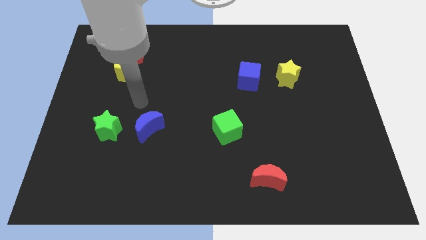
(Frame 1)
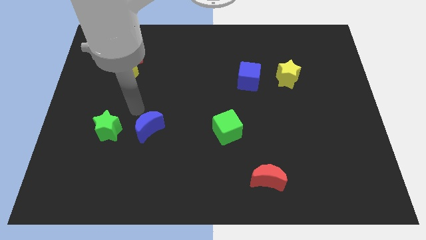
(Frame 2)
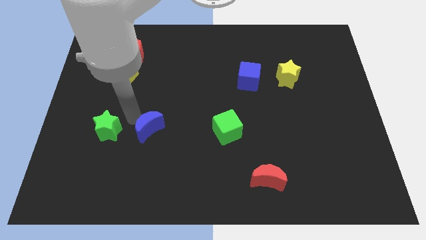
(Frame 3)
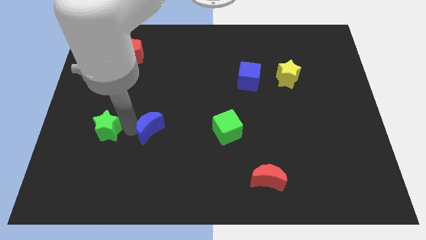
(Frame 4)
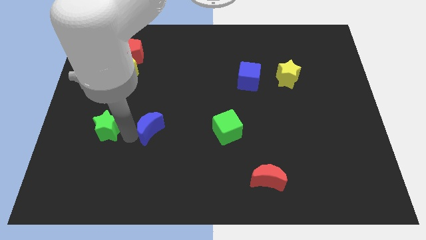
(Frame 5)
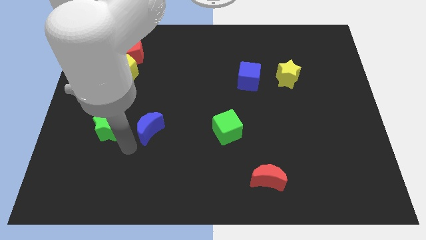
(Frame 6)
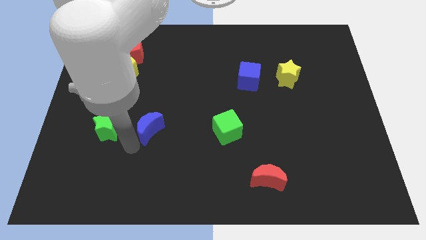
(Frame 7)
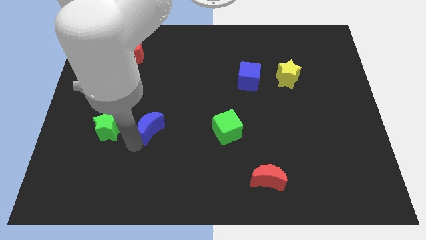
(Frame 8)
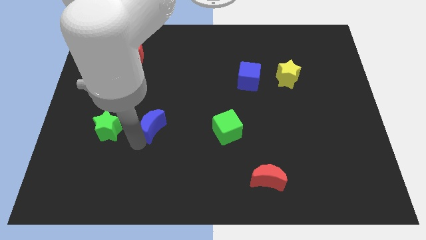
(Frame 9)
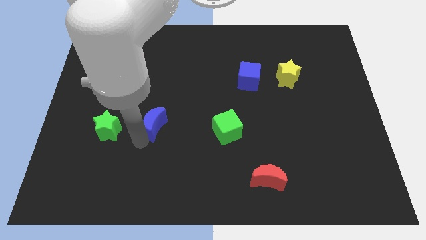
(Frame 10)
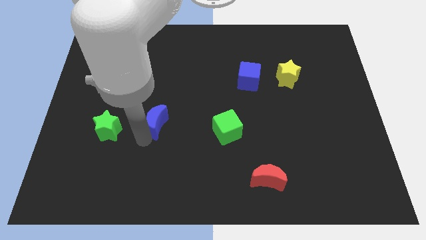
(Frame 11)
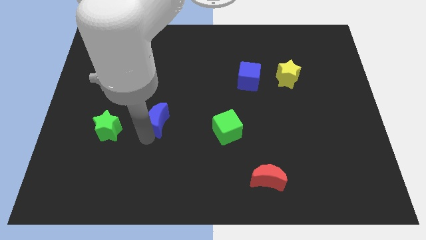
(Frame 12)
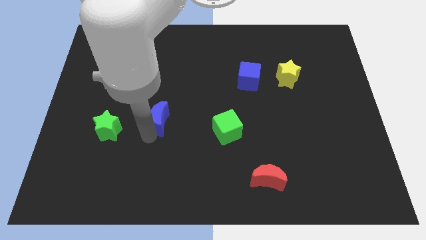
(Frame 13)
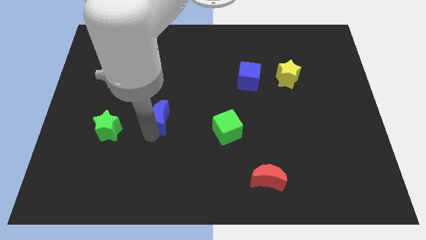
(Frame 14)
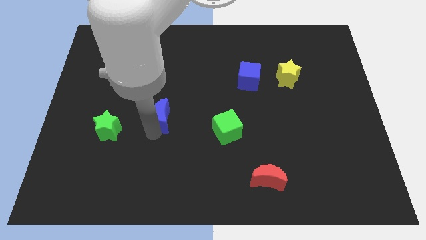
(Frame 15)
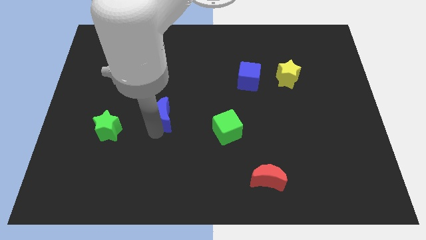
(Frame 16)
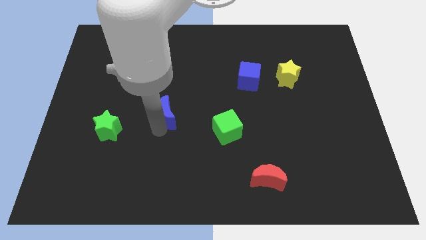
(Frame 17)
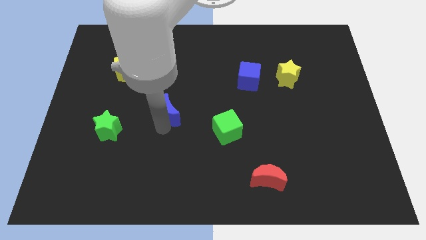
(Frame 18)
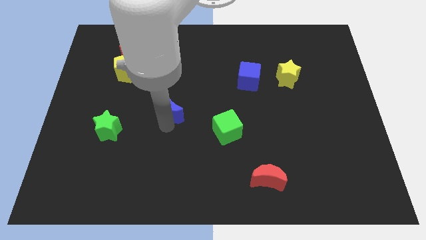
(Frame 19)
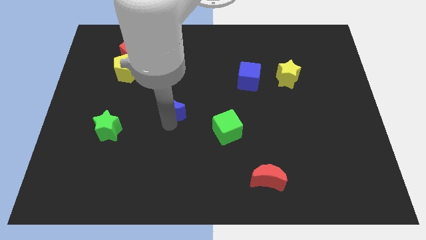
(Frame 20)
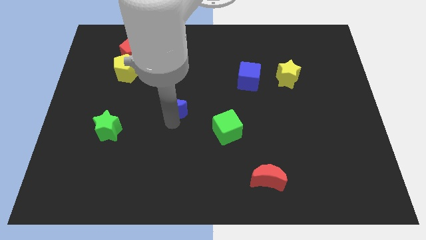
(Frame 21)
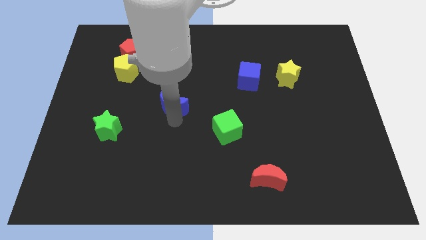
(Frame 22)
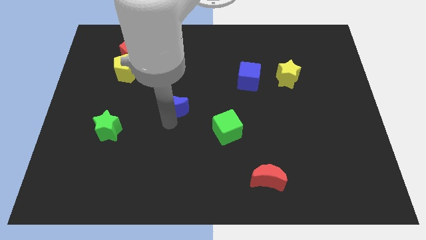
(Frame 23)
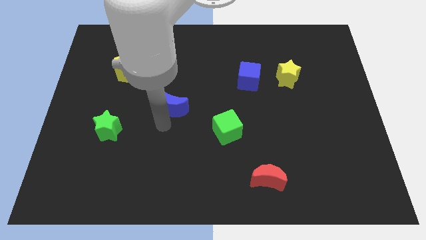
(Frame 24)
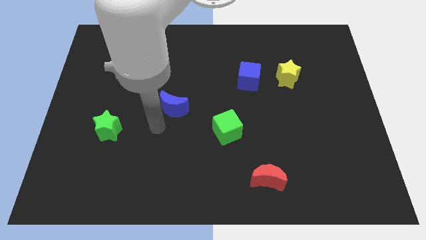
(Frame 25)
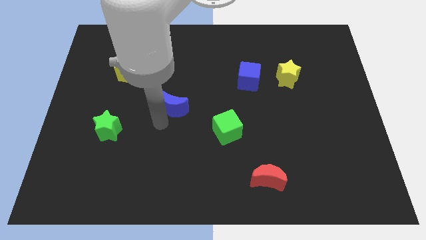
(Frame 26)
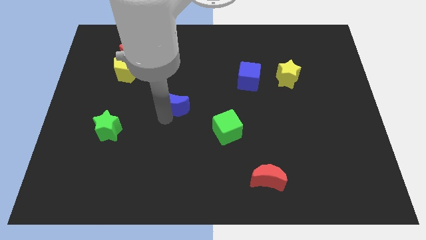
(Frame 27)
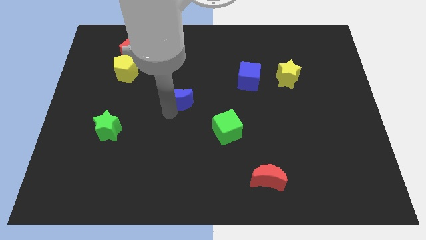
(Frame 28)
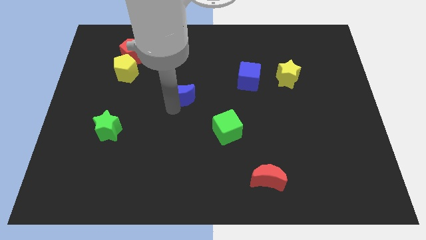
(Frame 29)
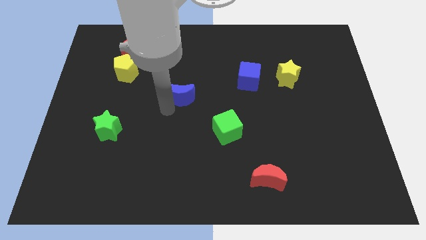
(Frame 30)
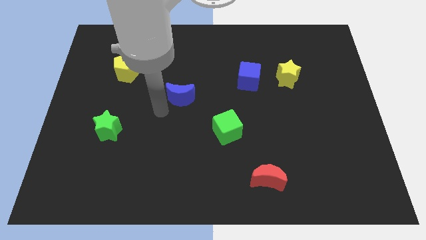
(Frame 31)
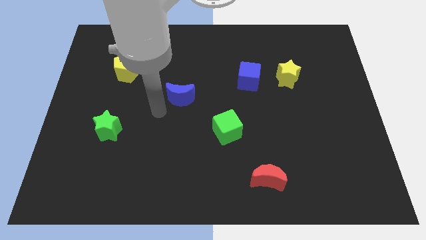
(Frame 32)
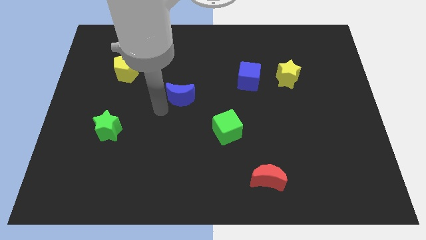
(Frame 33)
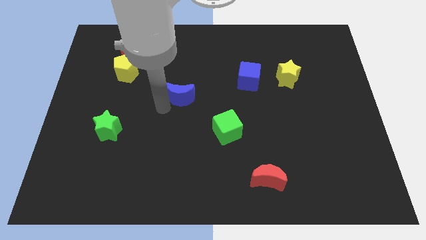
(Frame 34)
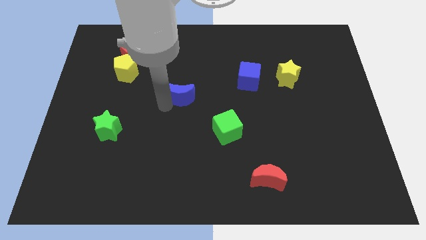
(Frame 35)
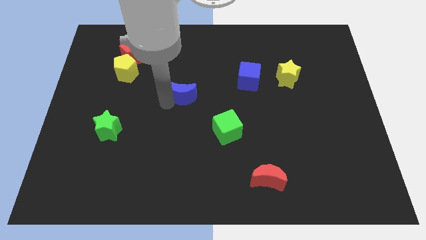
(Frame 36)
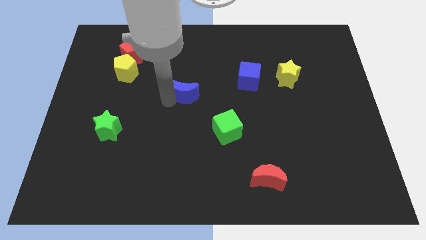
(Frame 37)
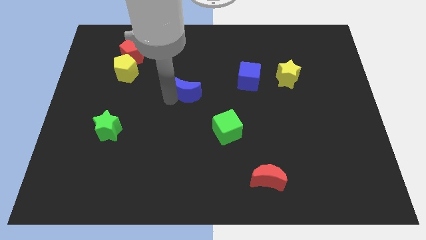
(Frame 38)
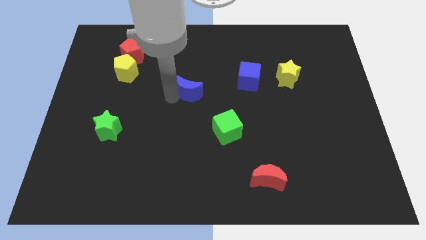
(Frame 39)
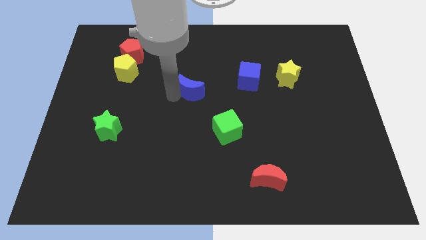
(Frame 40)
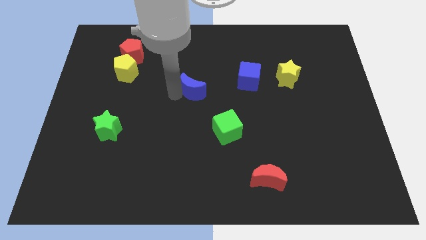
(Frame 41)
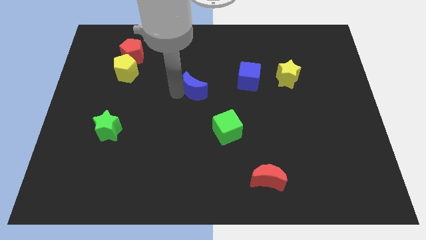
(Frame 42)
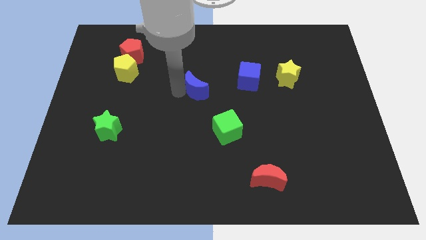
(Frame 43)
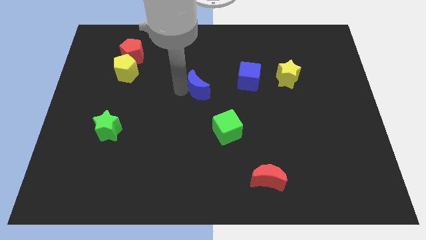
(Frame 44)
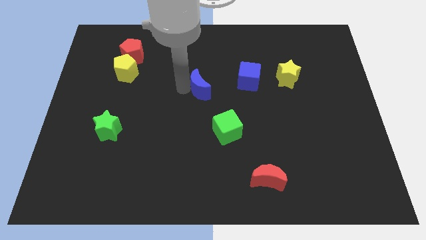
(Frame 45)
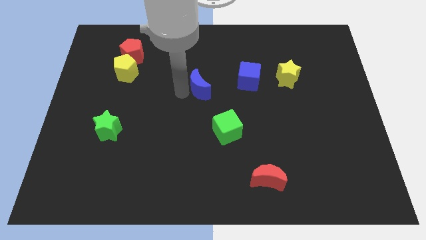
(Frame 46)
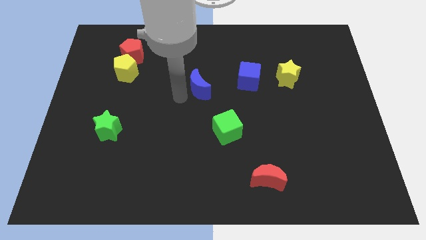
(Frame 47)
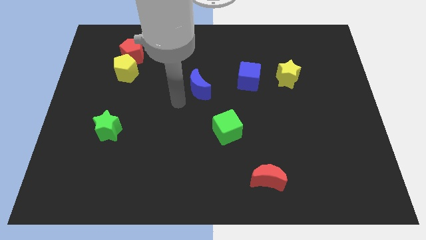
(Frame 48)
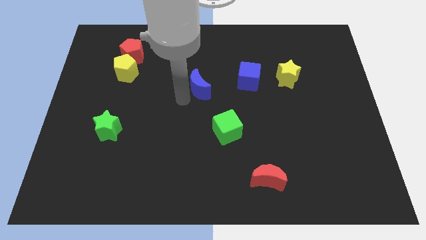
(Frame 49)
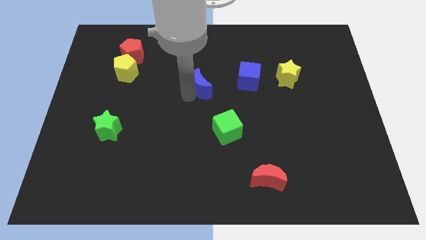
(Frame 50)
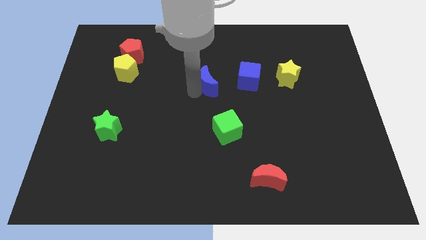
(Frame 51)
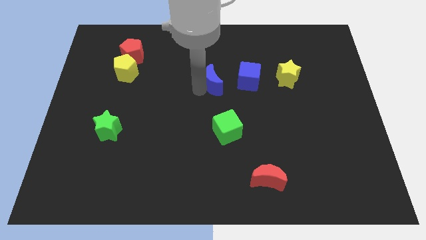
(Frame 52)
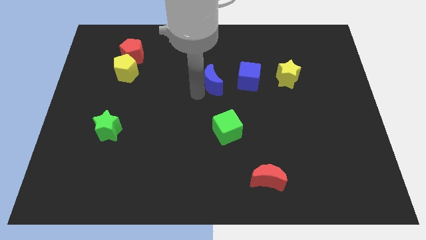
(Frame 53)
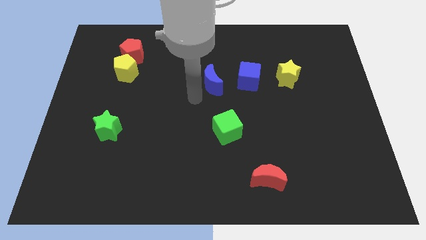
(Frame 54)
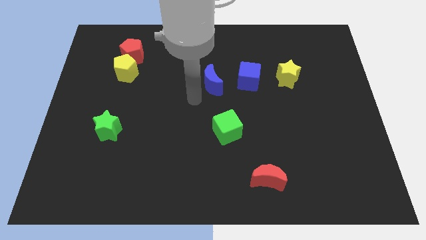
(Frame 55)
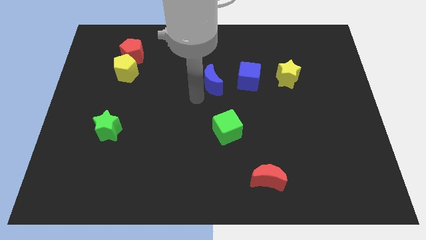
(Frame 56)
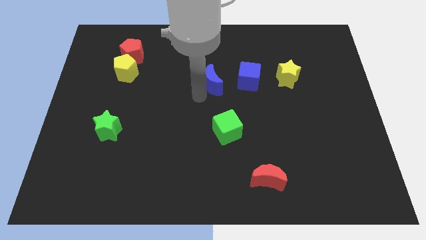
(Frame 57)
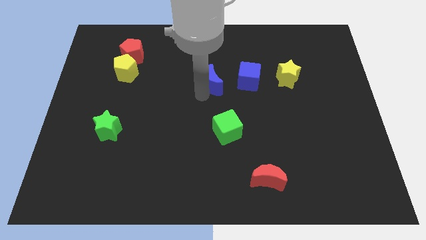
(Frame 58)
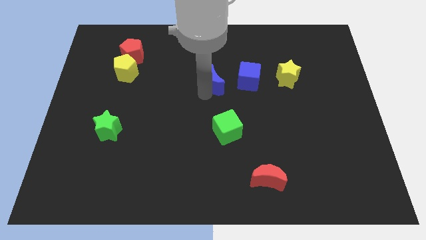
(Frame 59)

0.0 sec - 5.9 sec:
slide the blue moon up and to the right

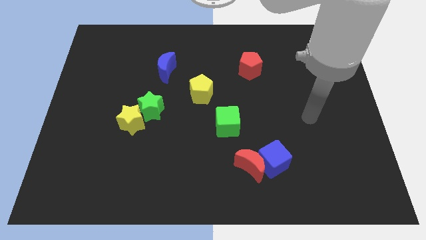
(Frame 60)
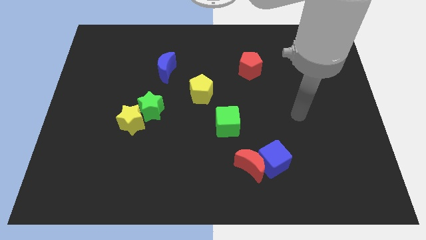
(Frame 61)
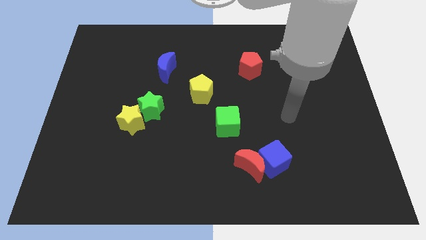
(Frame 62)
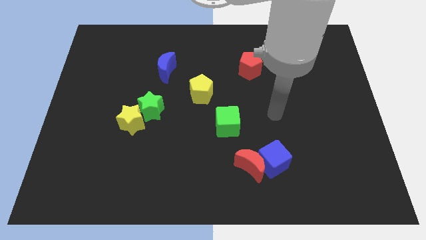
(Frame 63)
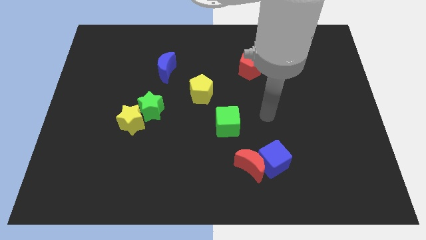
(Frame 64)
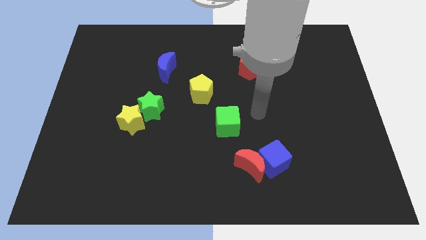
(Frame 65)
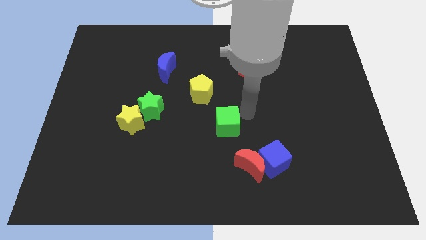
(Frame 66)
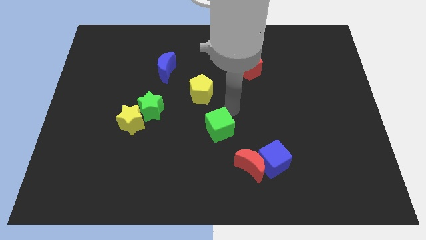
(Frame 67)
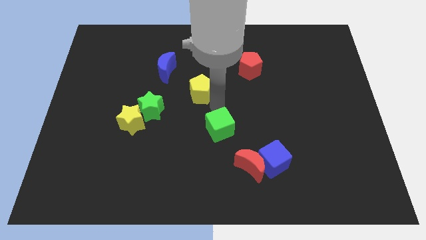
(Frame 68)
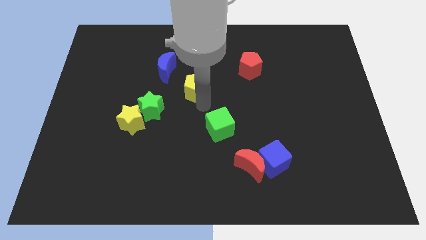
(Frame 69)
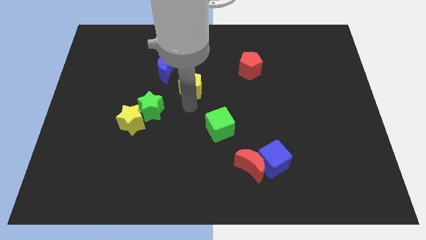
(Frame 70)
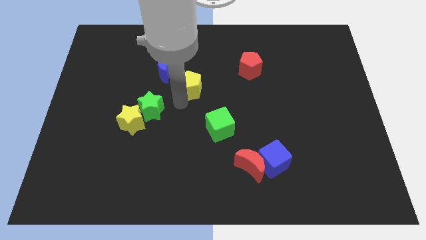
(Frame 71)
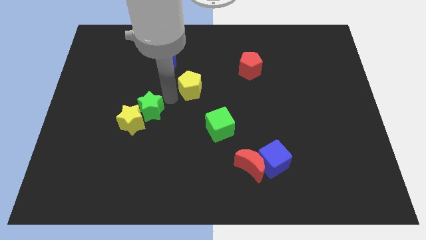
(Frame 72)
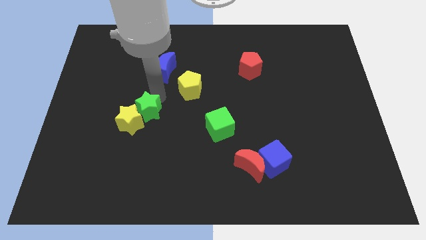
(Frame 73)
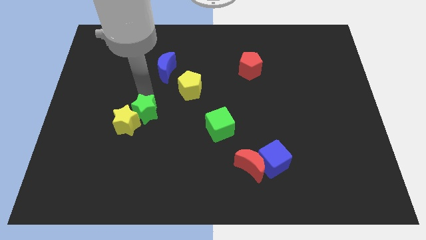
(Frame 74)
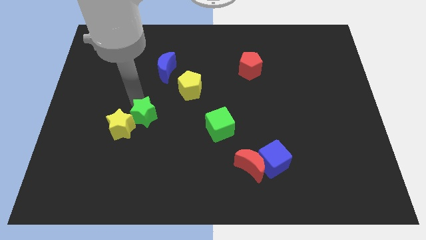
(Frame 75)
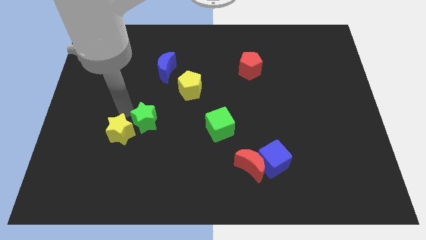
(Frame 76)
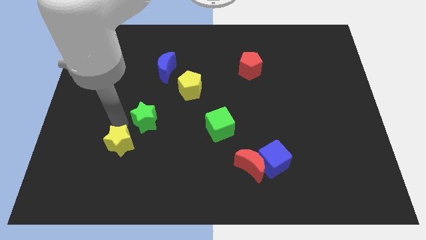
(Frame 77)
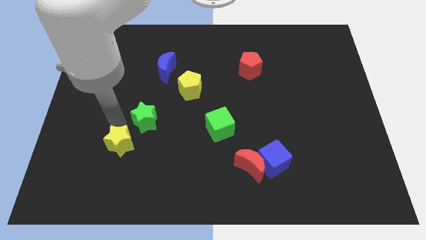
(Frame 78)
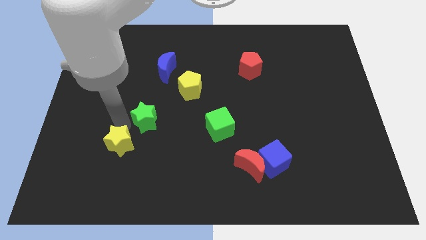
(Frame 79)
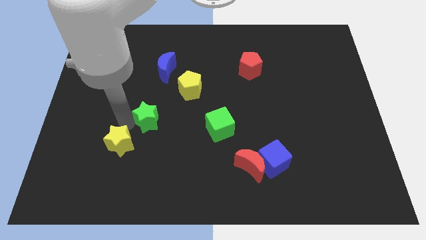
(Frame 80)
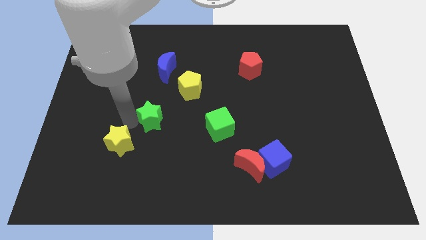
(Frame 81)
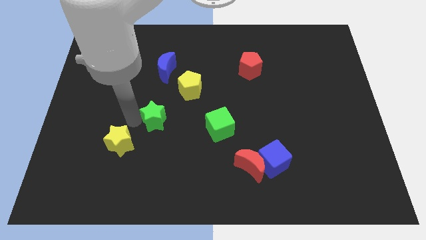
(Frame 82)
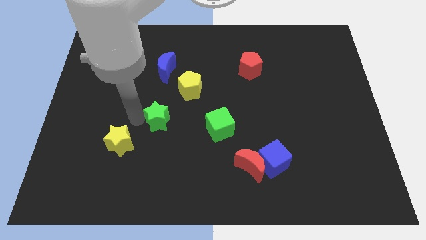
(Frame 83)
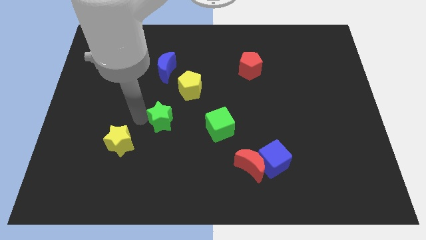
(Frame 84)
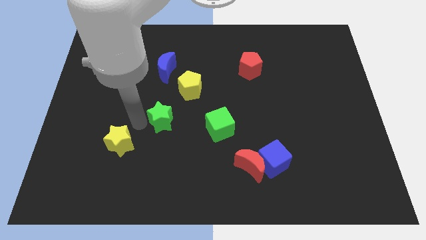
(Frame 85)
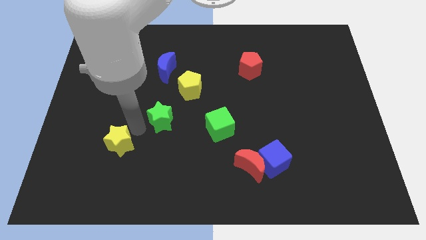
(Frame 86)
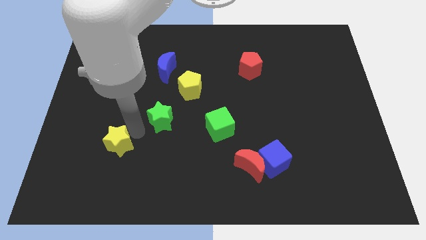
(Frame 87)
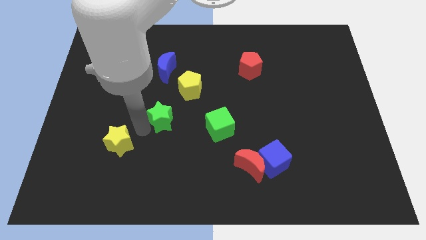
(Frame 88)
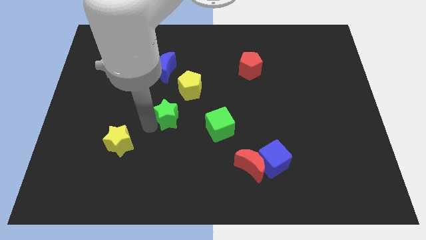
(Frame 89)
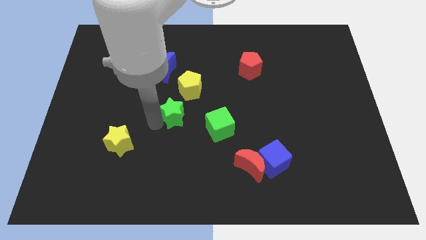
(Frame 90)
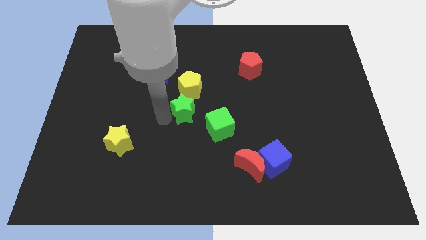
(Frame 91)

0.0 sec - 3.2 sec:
move the green star right a bit
